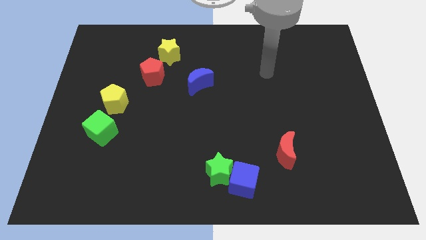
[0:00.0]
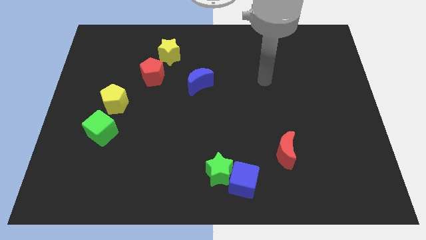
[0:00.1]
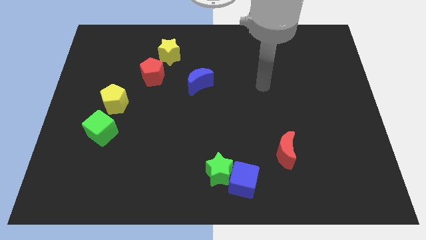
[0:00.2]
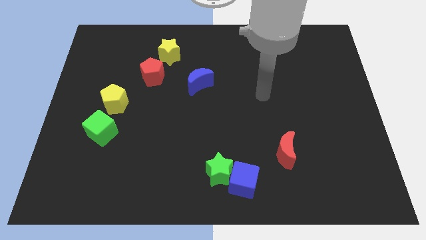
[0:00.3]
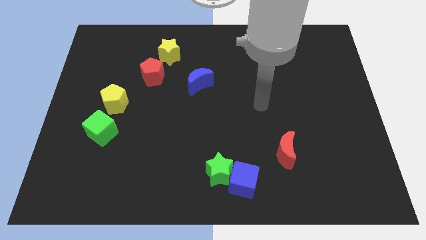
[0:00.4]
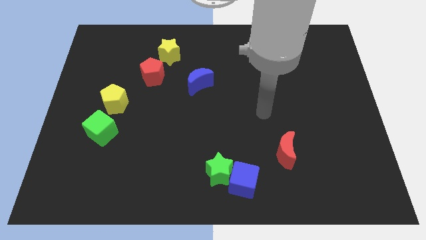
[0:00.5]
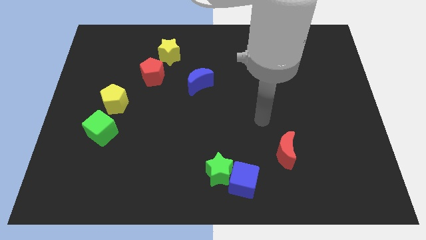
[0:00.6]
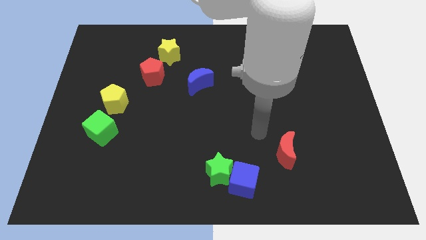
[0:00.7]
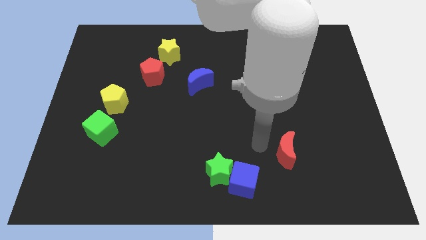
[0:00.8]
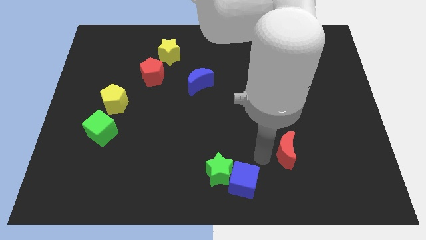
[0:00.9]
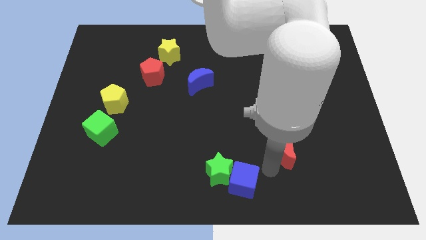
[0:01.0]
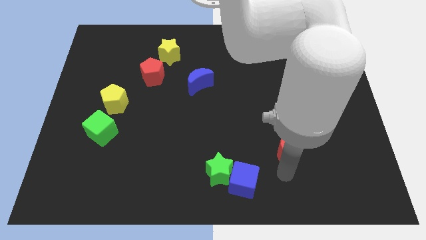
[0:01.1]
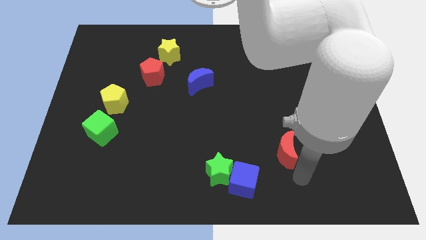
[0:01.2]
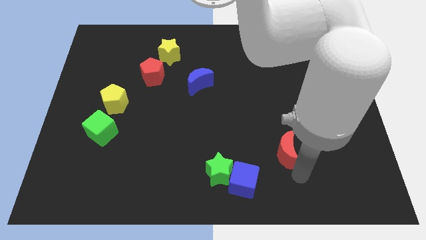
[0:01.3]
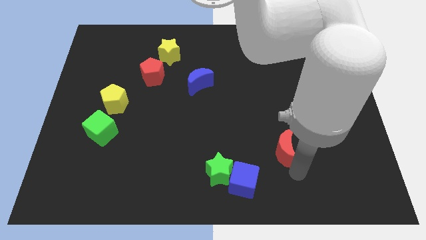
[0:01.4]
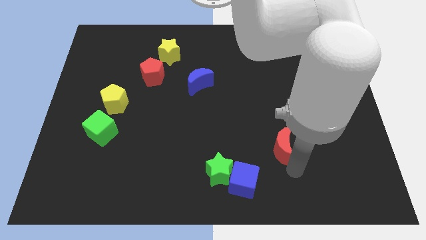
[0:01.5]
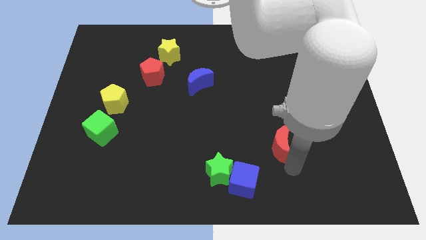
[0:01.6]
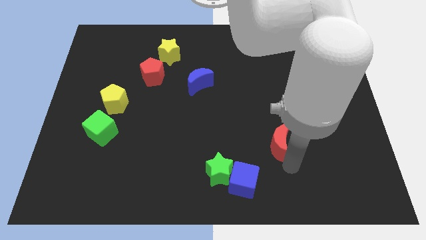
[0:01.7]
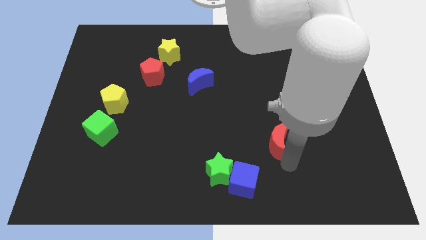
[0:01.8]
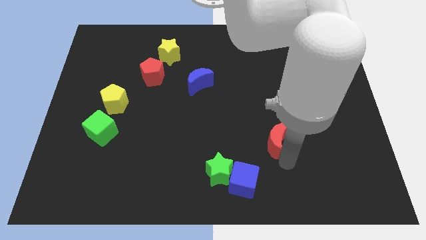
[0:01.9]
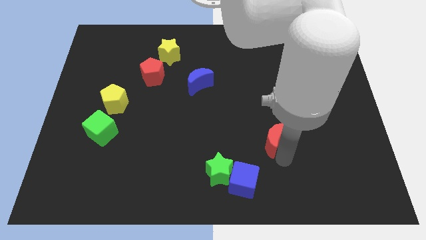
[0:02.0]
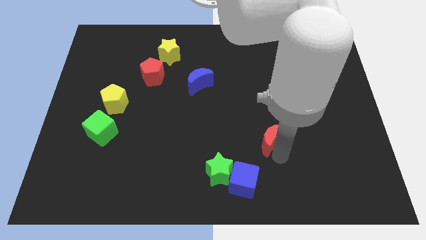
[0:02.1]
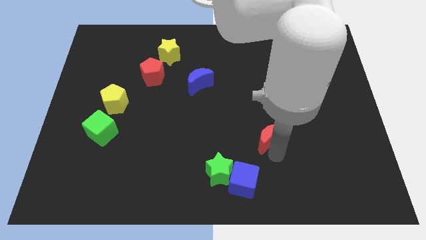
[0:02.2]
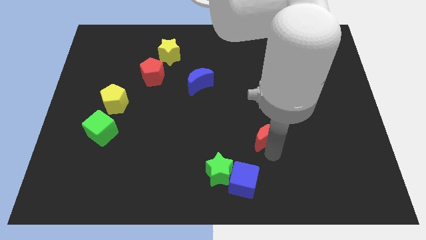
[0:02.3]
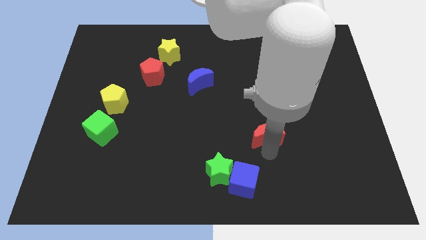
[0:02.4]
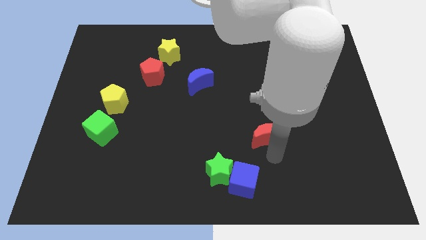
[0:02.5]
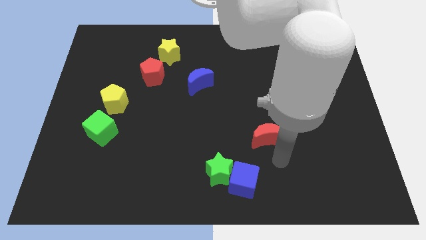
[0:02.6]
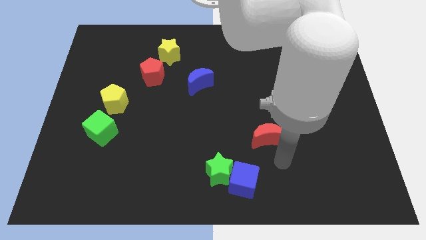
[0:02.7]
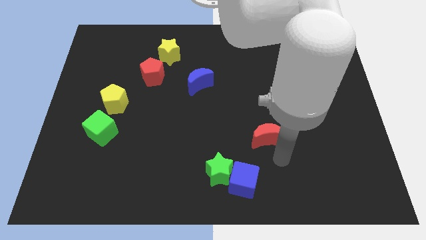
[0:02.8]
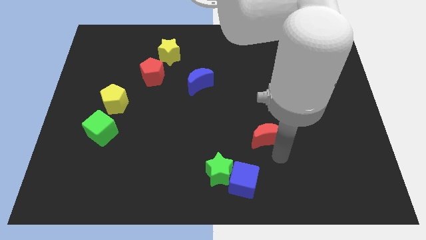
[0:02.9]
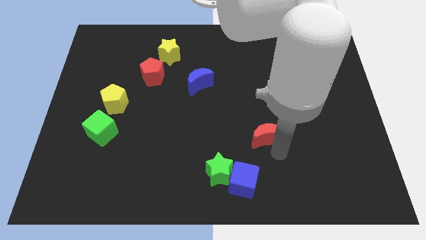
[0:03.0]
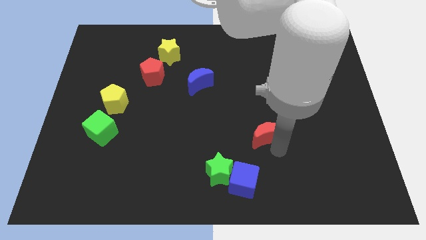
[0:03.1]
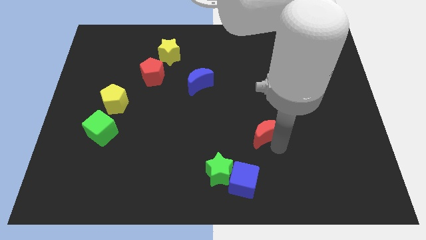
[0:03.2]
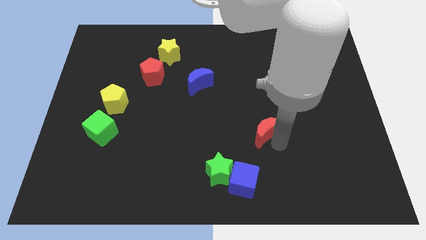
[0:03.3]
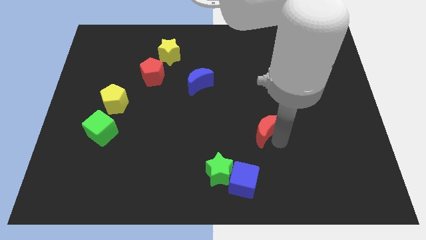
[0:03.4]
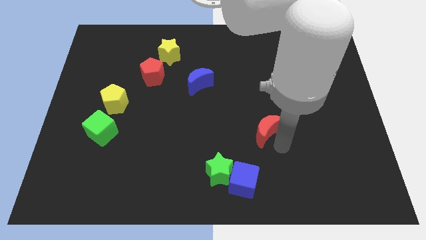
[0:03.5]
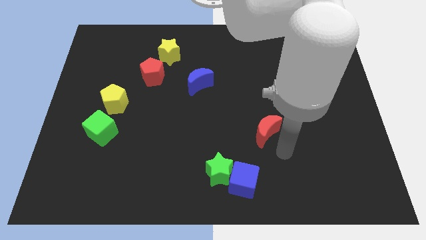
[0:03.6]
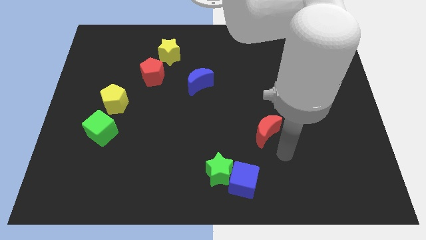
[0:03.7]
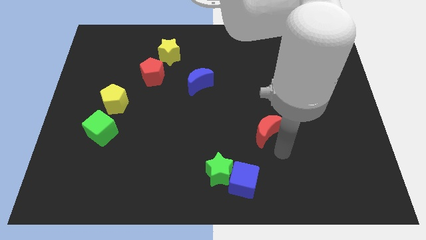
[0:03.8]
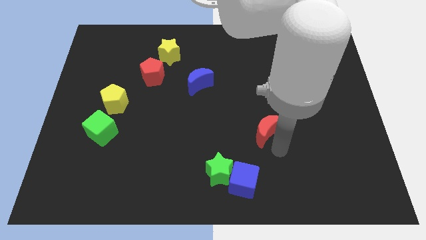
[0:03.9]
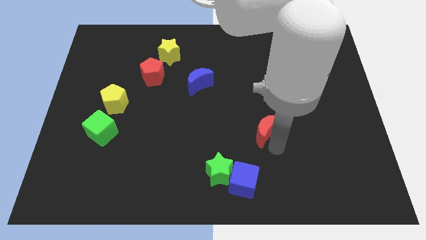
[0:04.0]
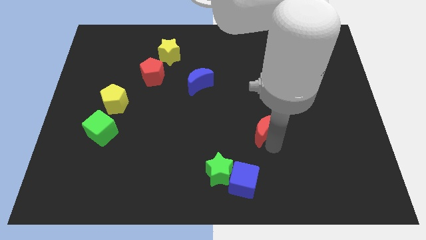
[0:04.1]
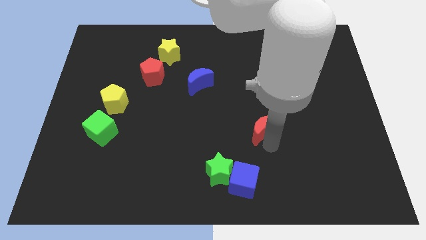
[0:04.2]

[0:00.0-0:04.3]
push the red moon a bit upwards and to the left diagonally

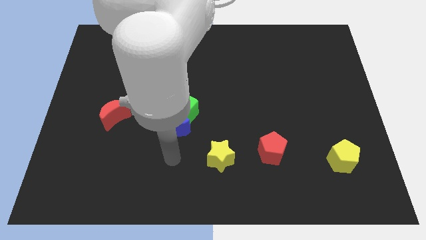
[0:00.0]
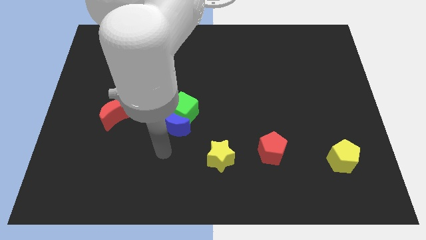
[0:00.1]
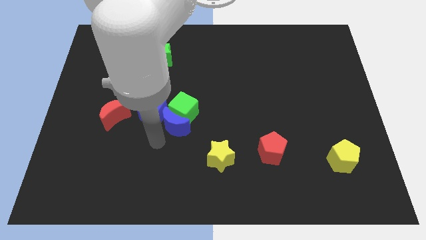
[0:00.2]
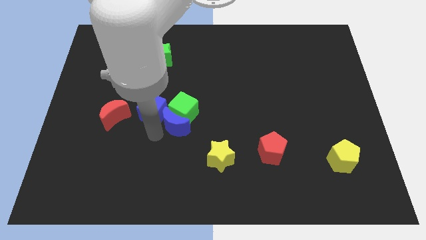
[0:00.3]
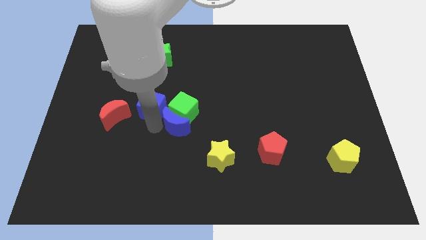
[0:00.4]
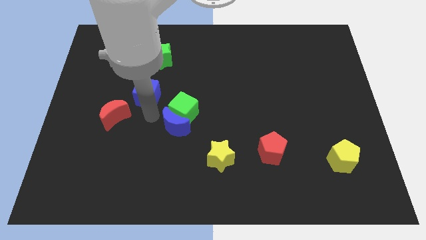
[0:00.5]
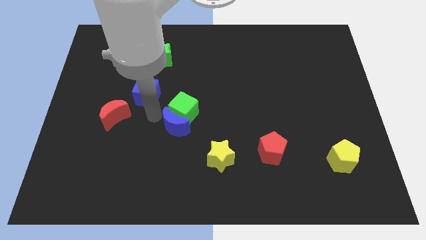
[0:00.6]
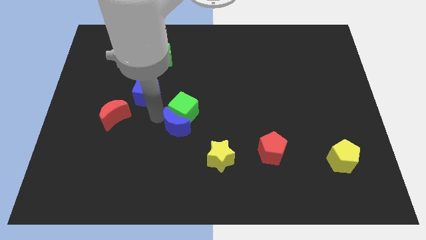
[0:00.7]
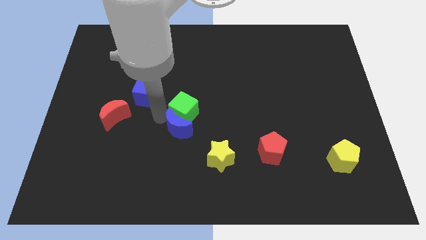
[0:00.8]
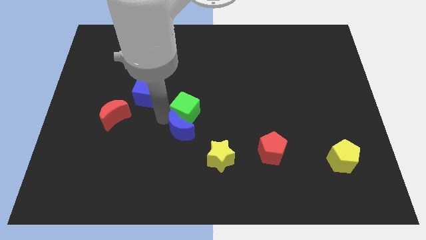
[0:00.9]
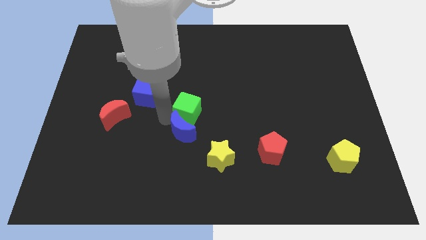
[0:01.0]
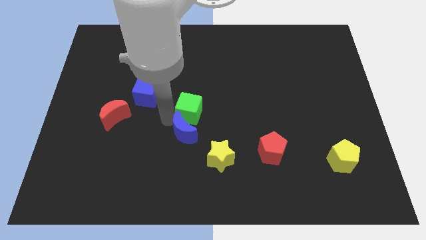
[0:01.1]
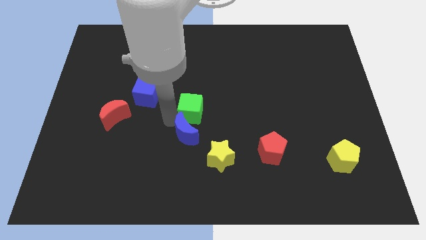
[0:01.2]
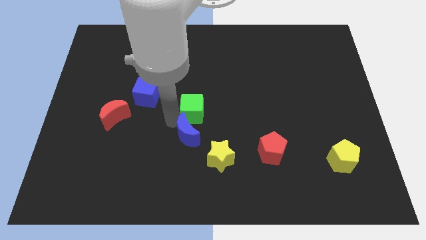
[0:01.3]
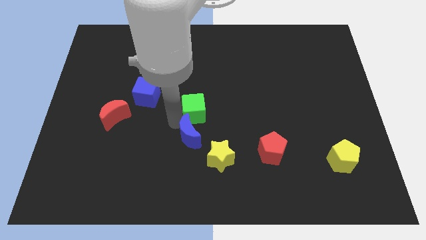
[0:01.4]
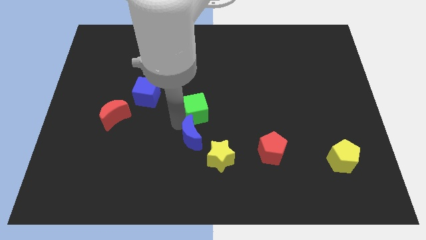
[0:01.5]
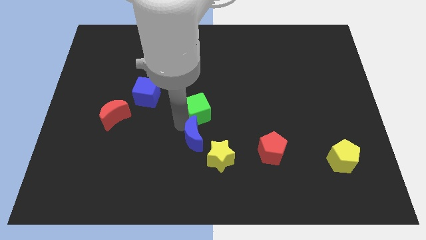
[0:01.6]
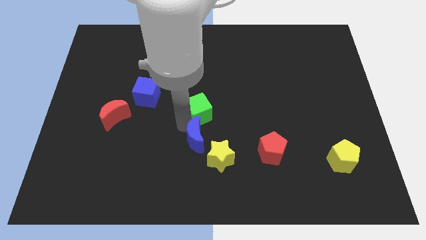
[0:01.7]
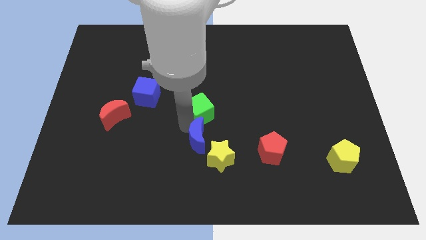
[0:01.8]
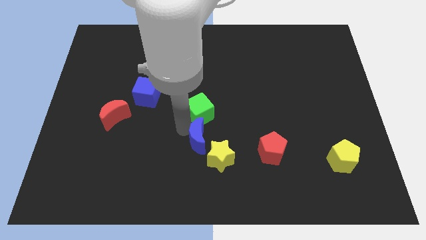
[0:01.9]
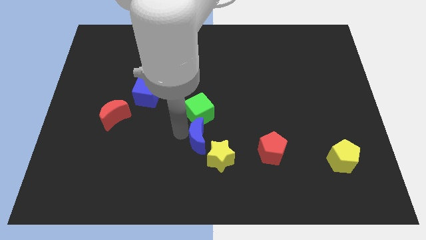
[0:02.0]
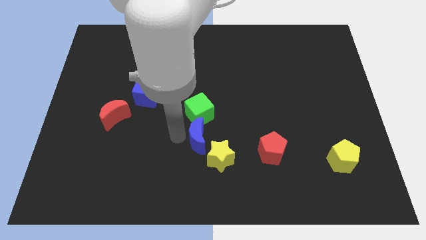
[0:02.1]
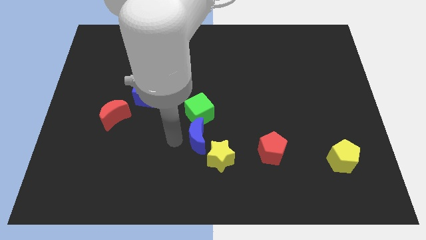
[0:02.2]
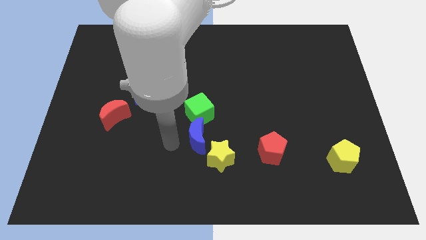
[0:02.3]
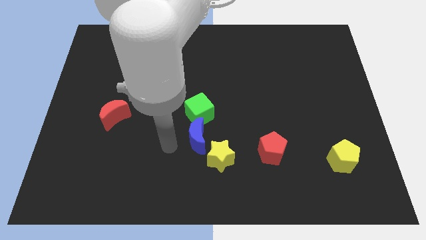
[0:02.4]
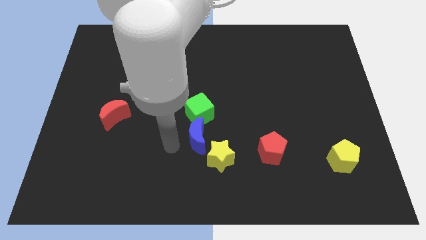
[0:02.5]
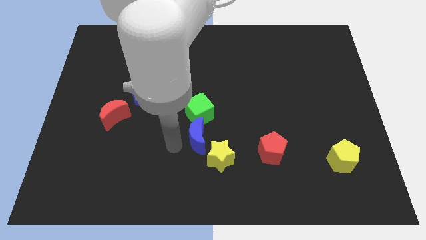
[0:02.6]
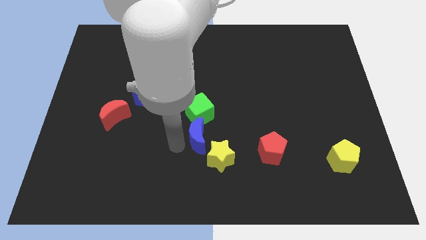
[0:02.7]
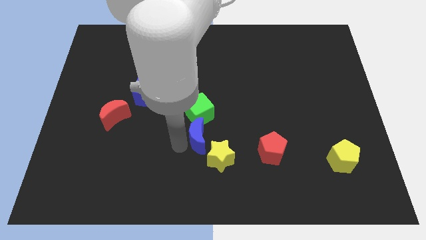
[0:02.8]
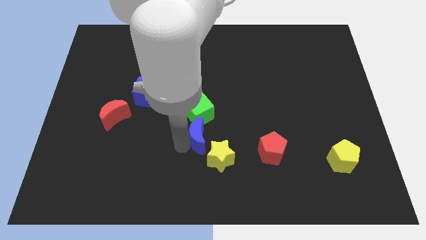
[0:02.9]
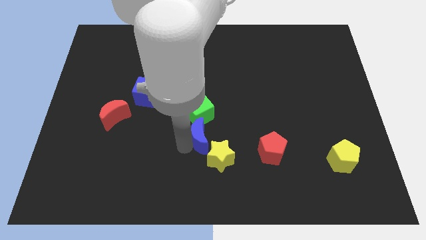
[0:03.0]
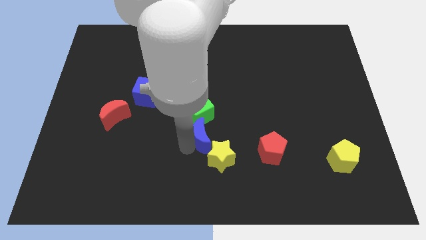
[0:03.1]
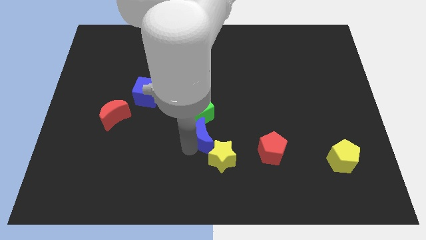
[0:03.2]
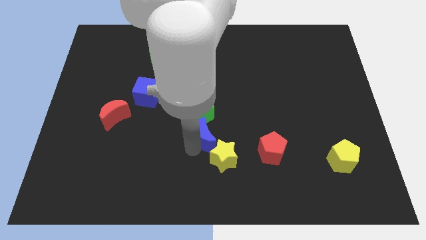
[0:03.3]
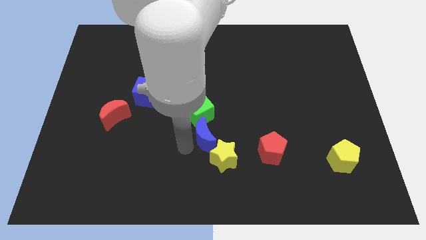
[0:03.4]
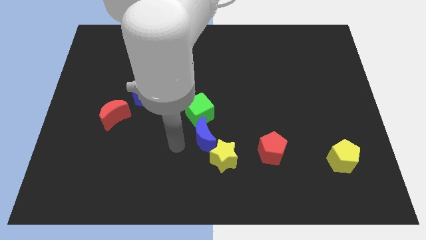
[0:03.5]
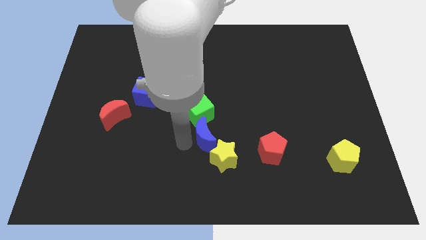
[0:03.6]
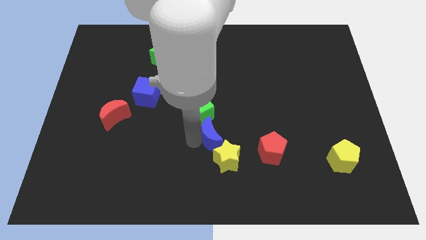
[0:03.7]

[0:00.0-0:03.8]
slightly slide the blue moon to the right
